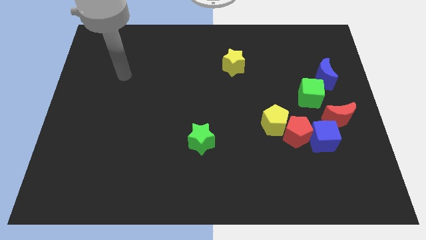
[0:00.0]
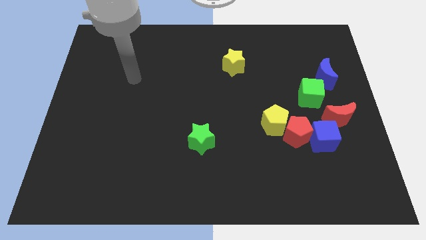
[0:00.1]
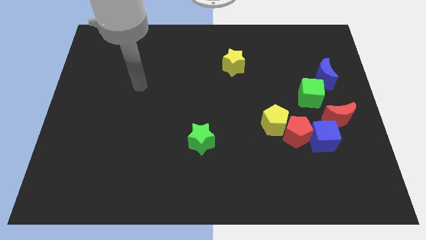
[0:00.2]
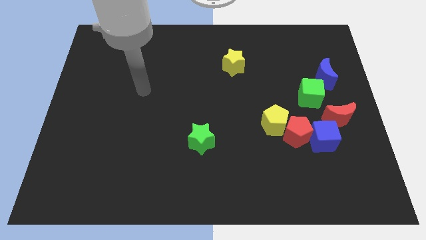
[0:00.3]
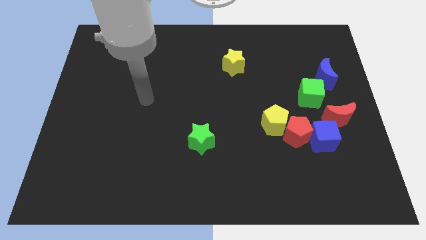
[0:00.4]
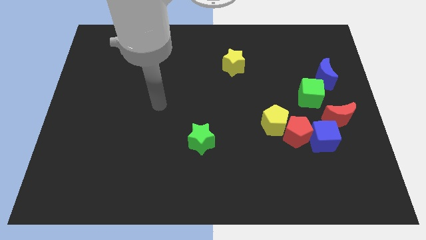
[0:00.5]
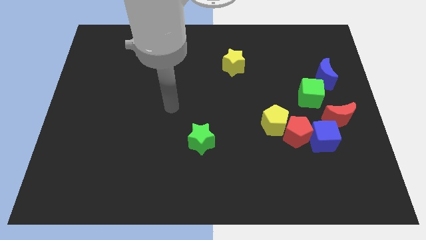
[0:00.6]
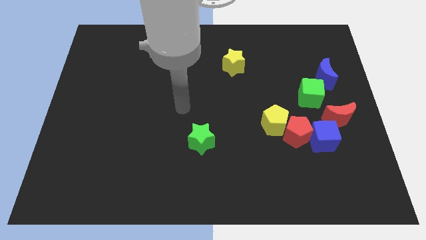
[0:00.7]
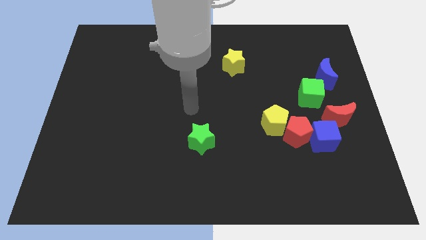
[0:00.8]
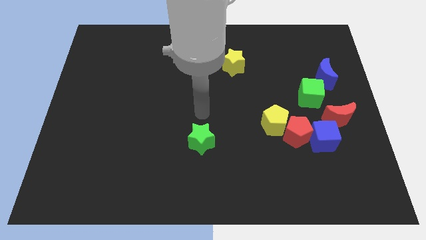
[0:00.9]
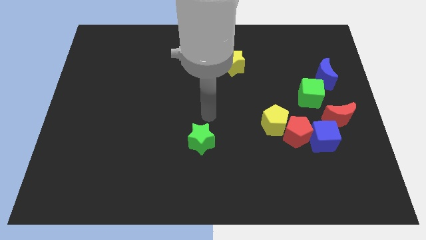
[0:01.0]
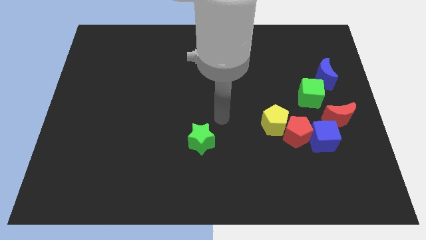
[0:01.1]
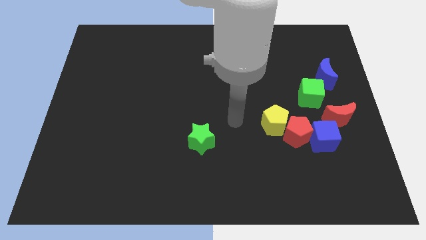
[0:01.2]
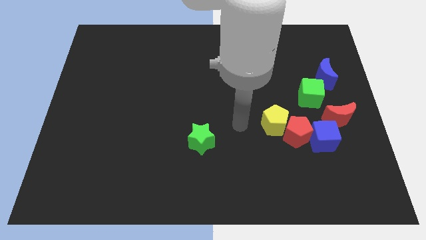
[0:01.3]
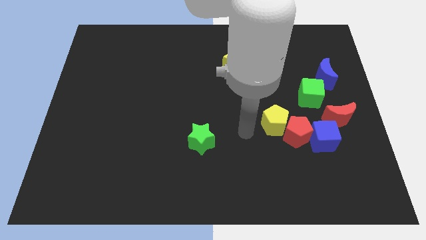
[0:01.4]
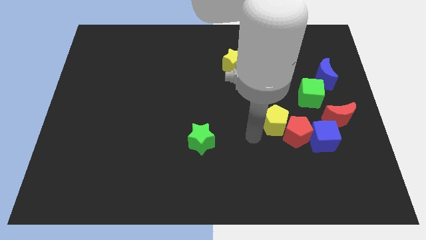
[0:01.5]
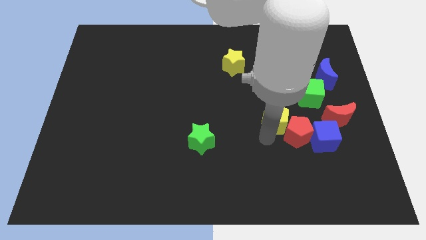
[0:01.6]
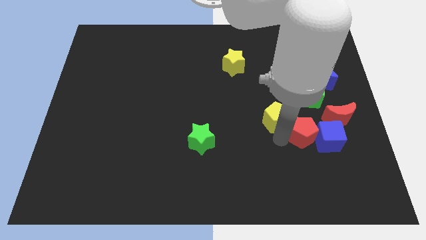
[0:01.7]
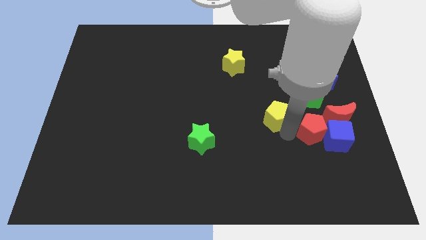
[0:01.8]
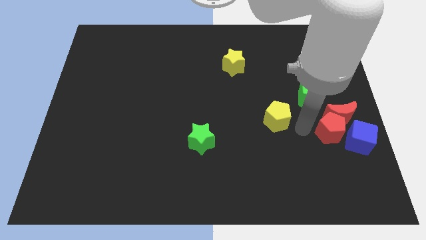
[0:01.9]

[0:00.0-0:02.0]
pull the yellow pentagon apart from the red pentagon

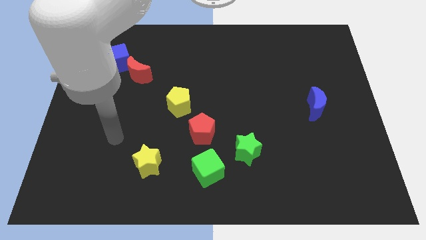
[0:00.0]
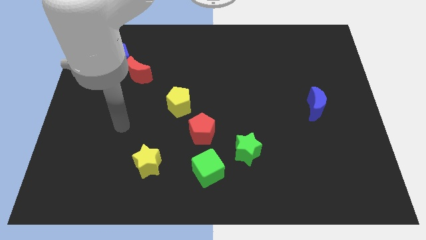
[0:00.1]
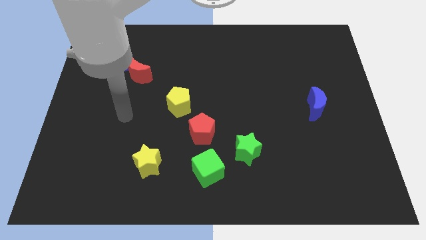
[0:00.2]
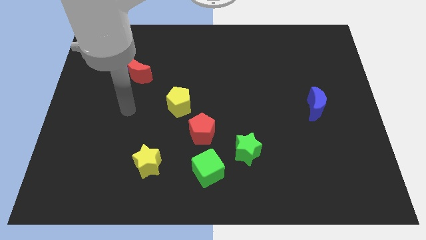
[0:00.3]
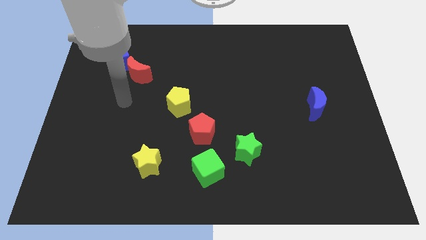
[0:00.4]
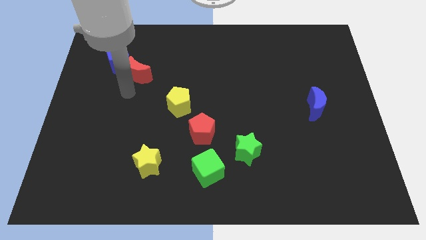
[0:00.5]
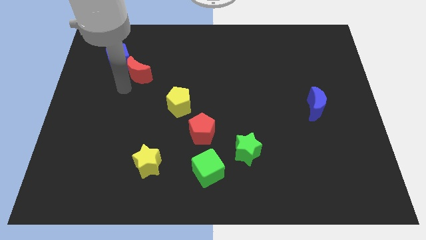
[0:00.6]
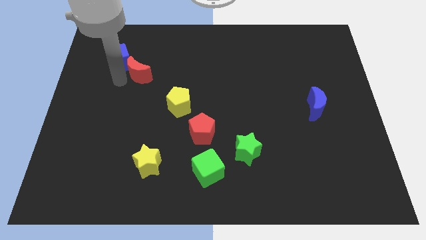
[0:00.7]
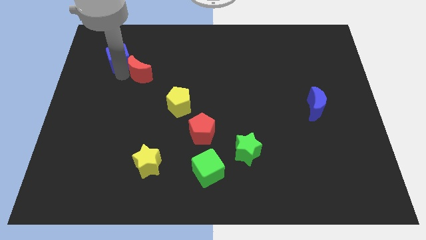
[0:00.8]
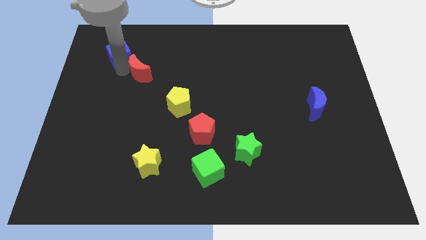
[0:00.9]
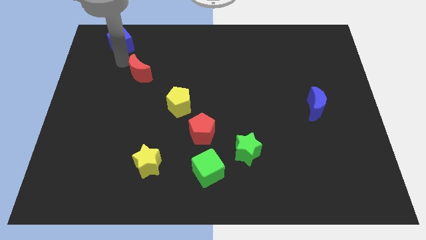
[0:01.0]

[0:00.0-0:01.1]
move the red moon away from the blue cube

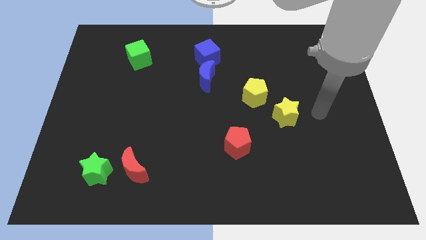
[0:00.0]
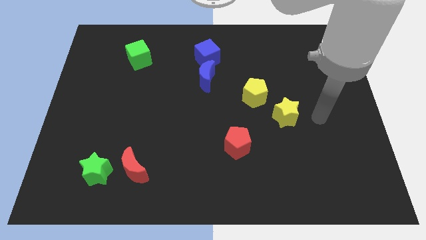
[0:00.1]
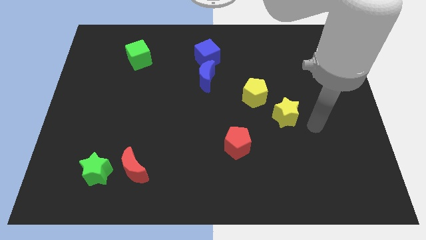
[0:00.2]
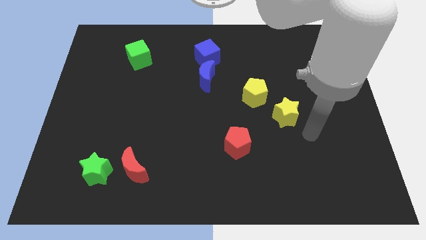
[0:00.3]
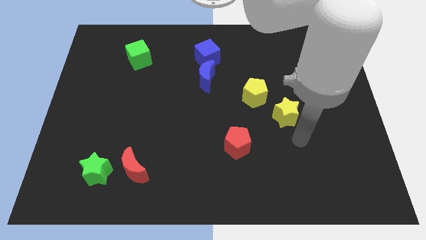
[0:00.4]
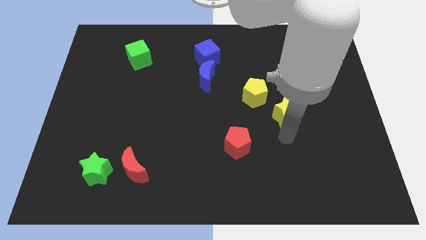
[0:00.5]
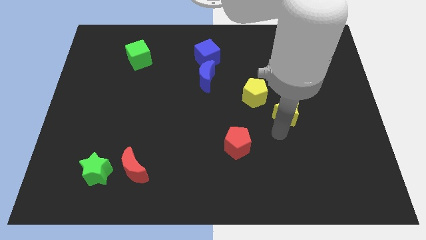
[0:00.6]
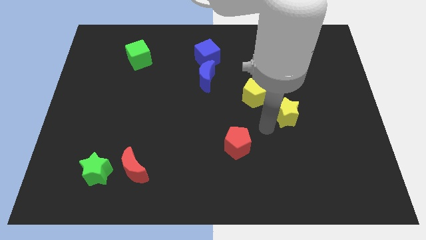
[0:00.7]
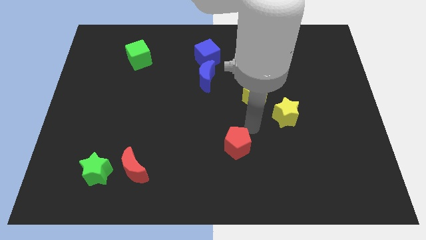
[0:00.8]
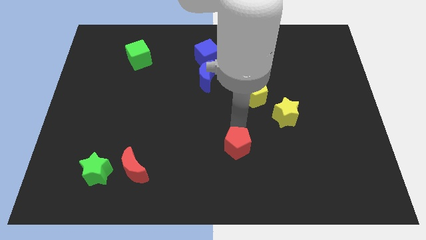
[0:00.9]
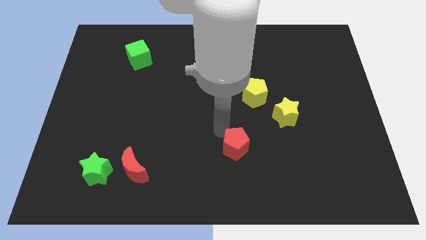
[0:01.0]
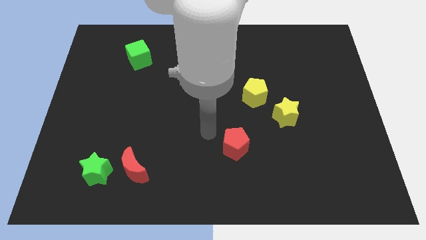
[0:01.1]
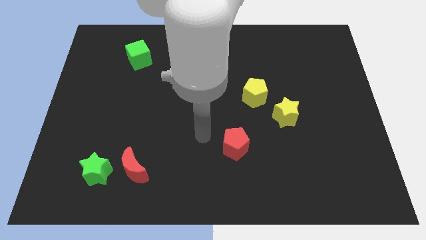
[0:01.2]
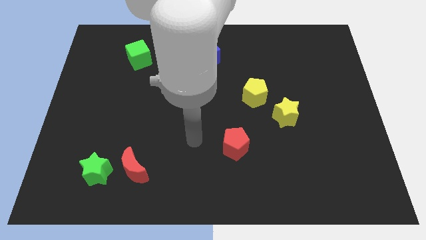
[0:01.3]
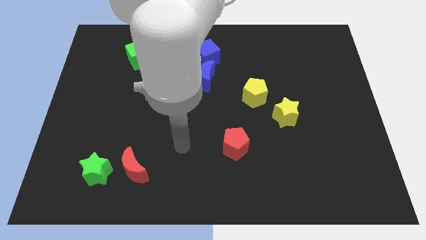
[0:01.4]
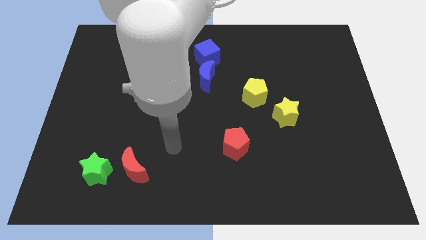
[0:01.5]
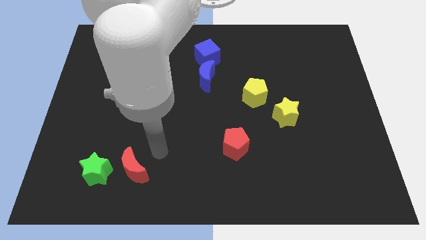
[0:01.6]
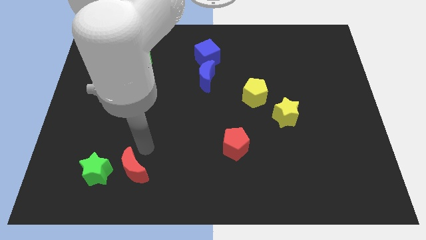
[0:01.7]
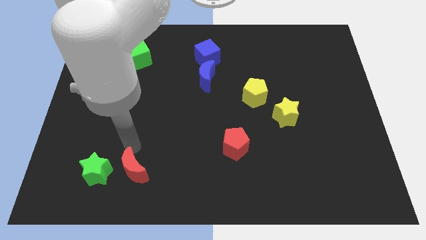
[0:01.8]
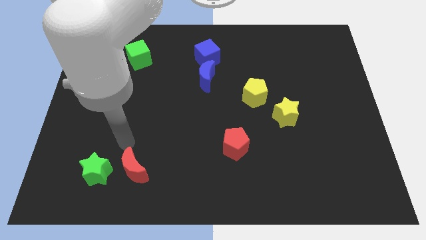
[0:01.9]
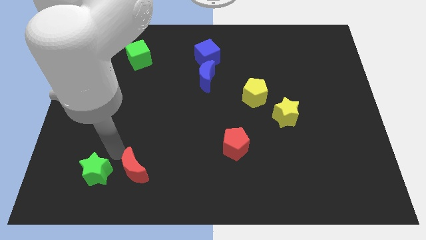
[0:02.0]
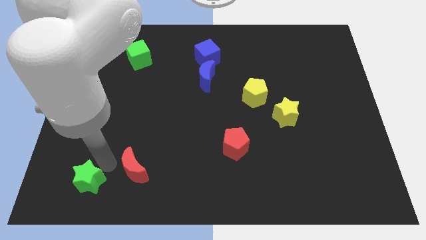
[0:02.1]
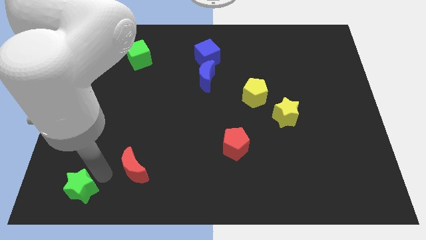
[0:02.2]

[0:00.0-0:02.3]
pull the red moon apart from the green star

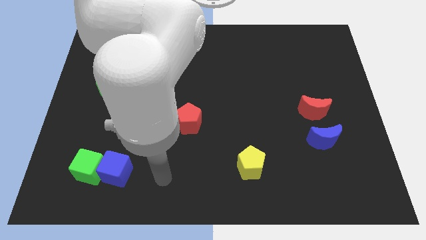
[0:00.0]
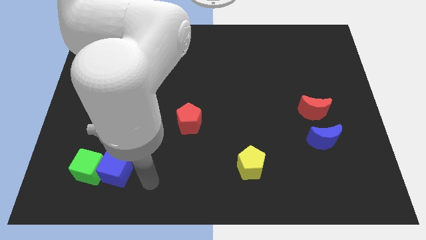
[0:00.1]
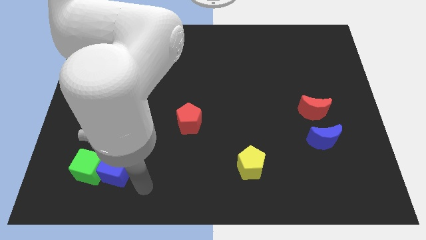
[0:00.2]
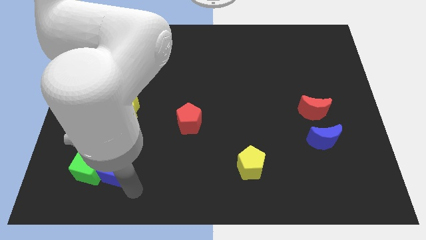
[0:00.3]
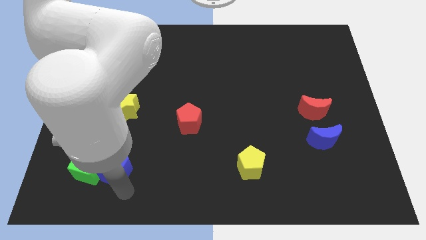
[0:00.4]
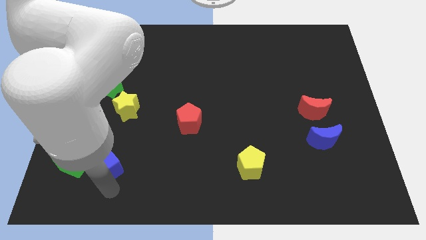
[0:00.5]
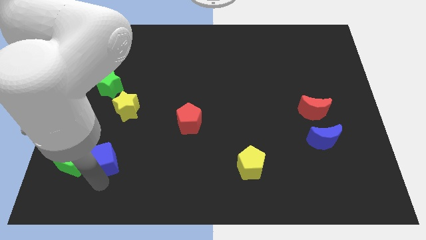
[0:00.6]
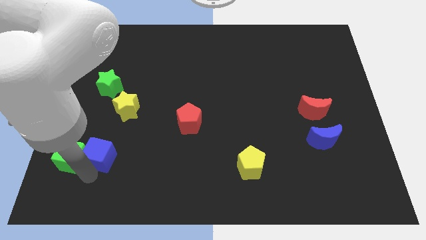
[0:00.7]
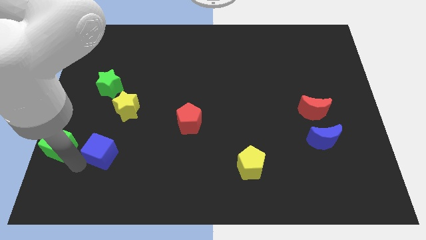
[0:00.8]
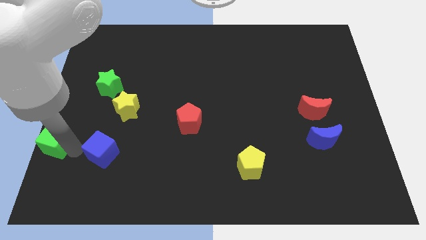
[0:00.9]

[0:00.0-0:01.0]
pull the blue cube apart from the green cube

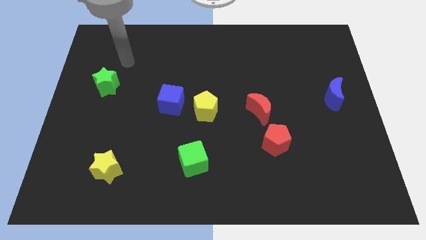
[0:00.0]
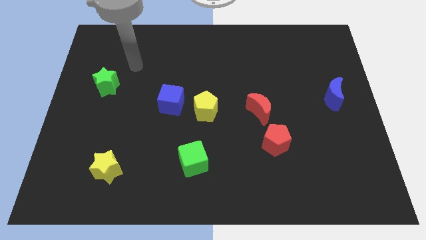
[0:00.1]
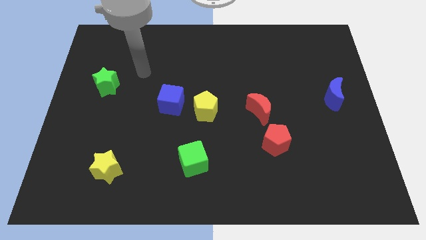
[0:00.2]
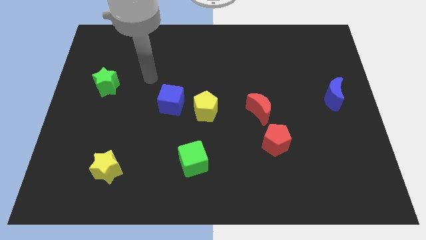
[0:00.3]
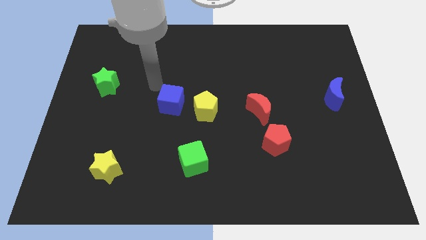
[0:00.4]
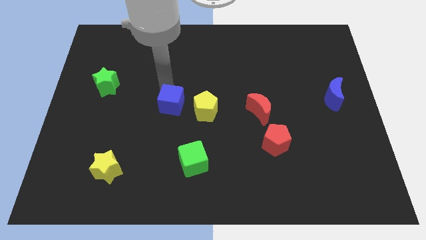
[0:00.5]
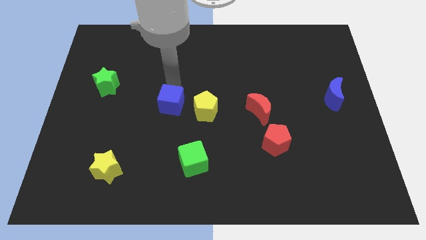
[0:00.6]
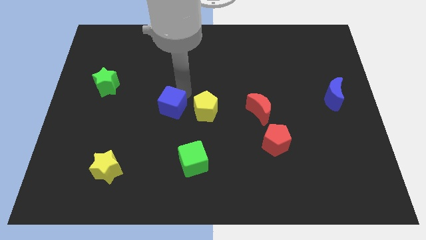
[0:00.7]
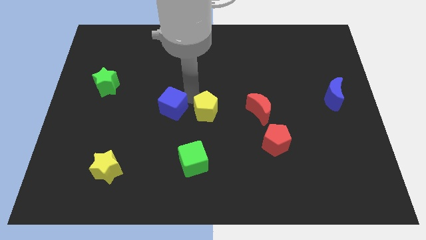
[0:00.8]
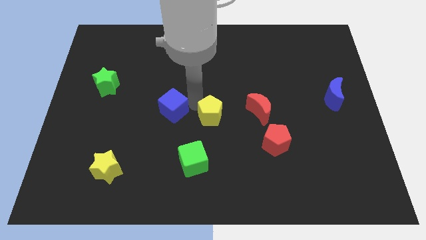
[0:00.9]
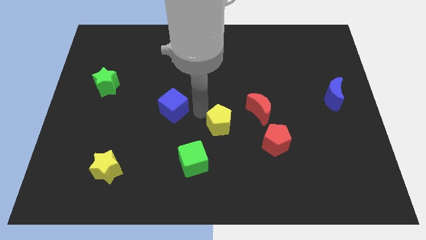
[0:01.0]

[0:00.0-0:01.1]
move the blue cube away from the yellow pentagon

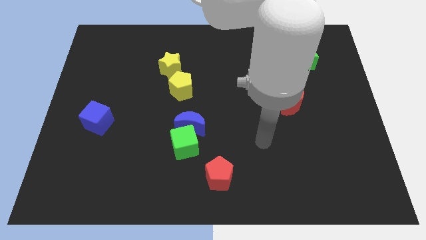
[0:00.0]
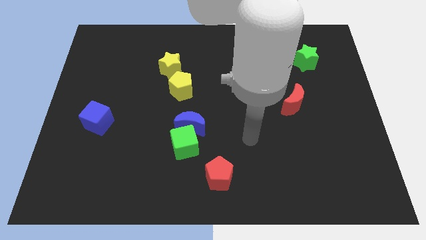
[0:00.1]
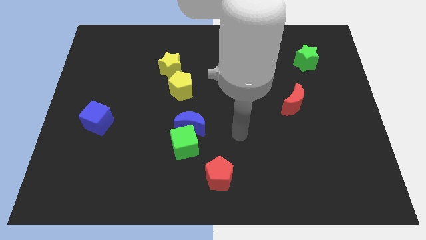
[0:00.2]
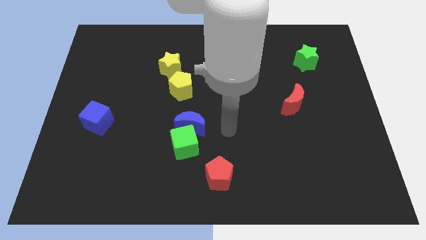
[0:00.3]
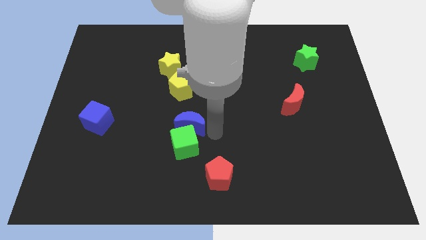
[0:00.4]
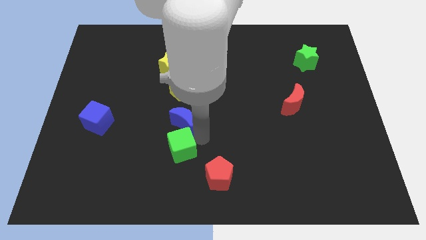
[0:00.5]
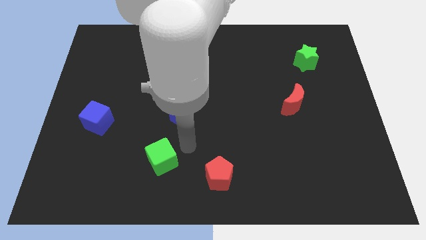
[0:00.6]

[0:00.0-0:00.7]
pull the blue moon apart from the green cube

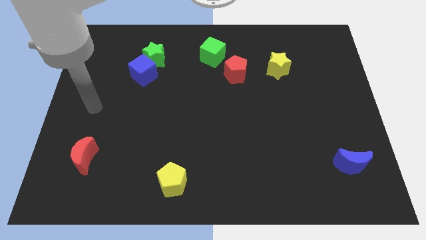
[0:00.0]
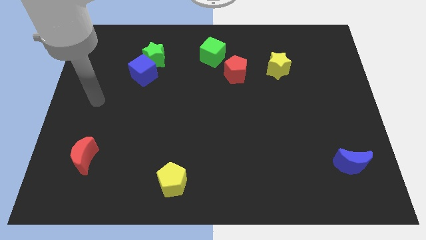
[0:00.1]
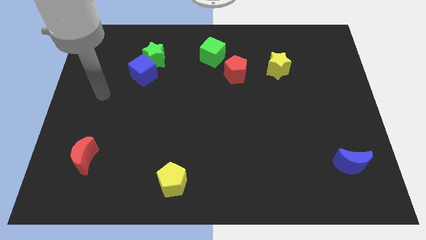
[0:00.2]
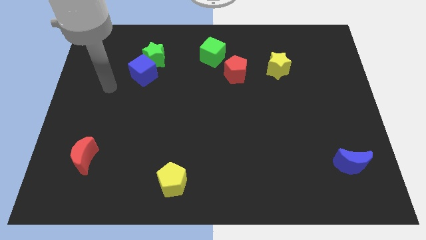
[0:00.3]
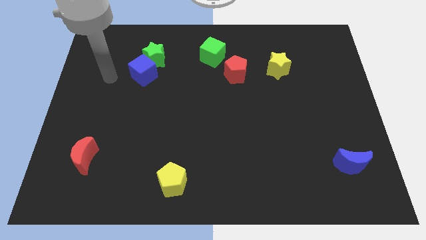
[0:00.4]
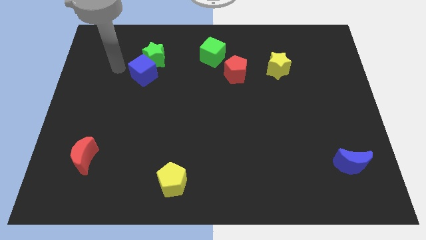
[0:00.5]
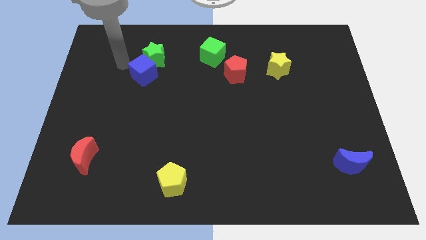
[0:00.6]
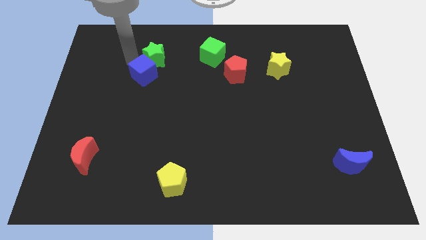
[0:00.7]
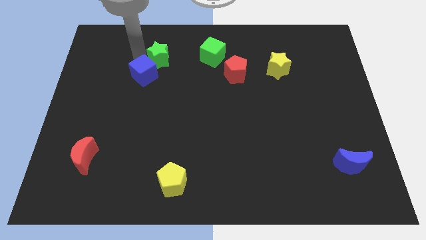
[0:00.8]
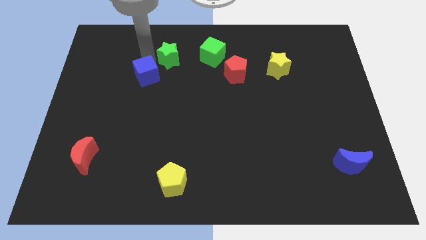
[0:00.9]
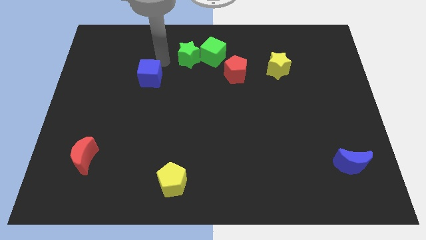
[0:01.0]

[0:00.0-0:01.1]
move the blue cube away from the green star

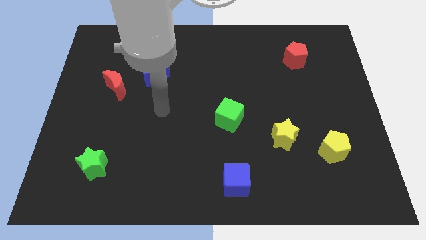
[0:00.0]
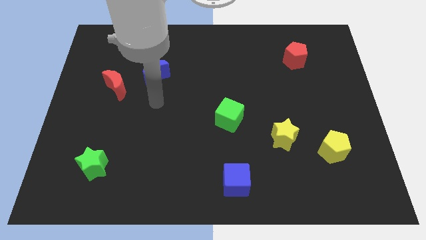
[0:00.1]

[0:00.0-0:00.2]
move the red moon away from the blue moon
